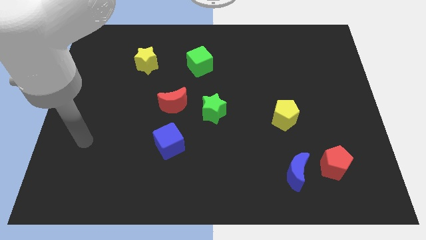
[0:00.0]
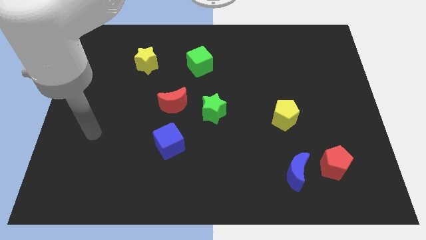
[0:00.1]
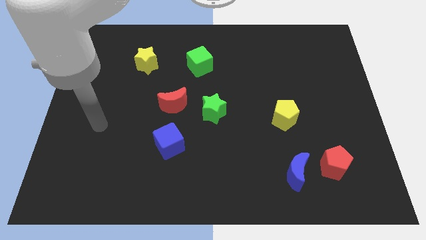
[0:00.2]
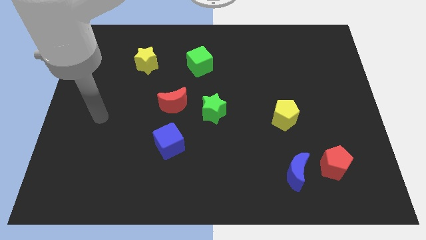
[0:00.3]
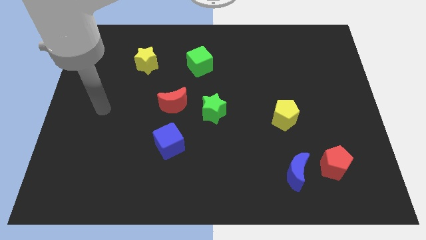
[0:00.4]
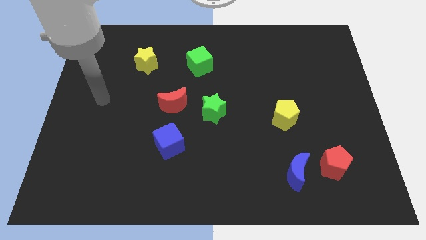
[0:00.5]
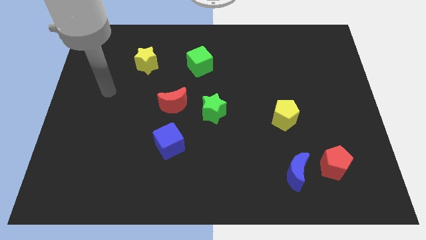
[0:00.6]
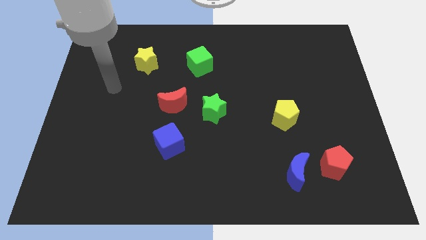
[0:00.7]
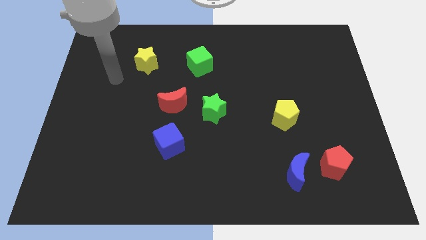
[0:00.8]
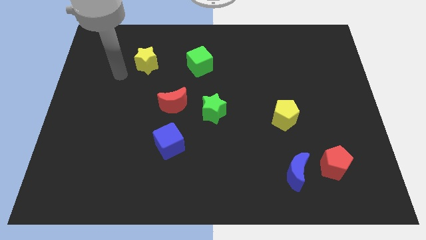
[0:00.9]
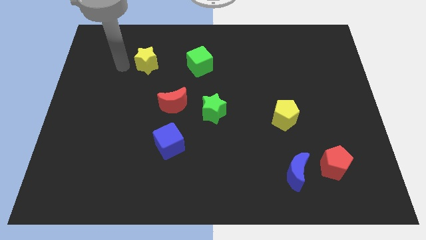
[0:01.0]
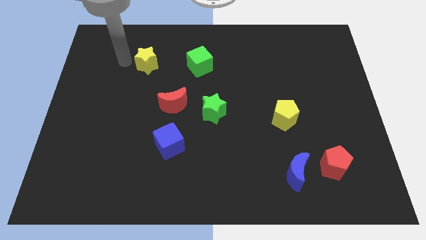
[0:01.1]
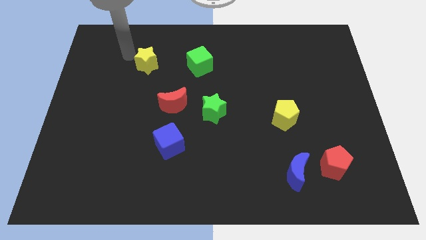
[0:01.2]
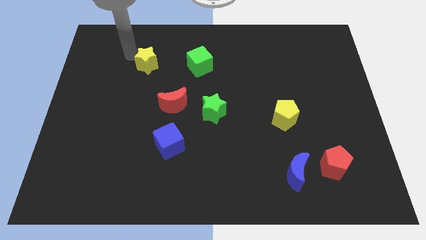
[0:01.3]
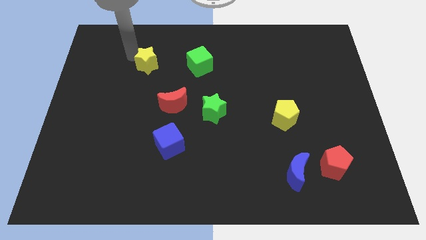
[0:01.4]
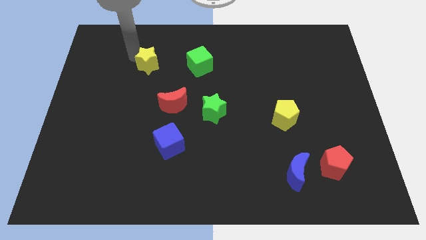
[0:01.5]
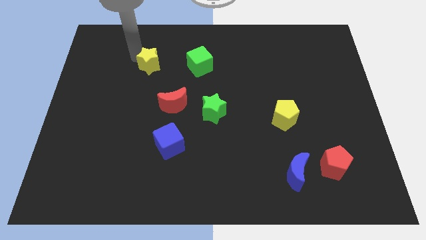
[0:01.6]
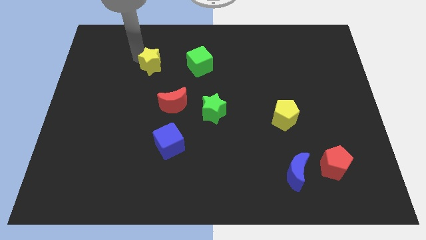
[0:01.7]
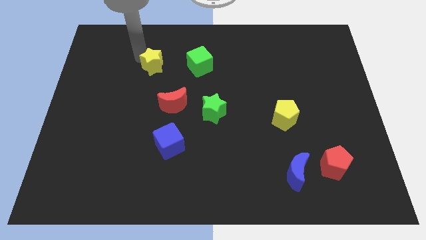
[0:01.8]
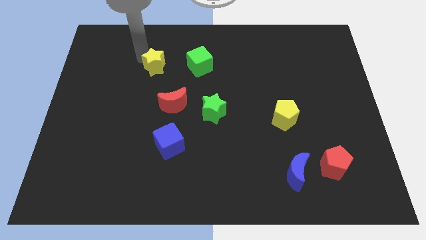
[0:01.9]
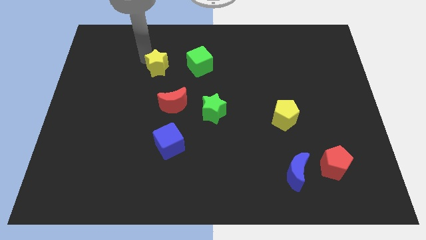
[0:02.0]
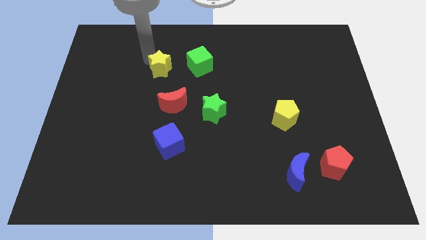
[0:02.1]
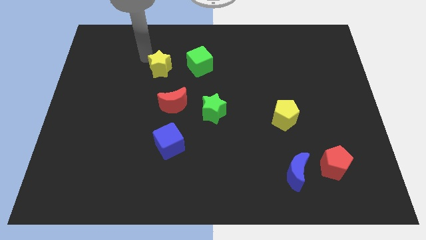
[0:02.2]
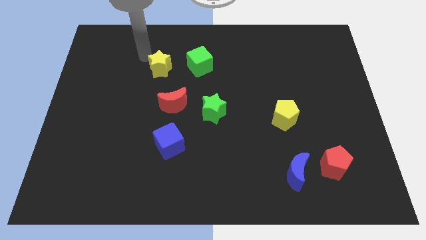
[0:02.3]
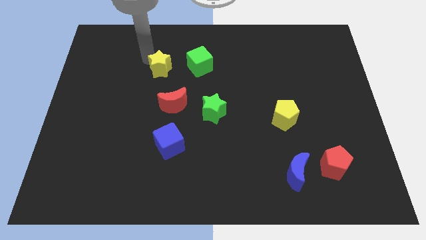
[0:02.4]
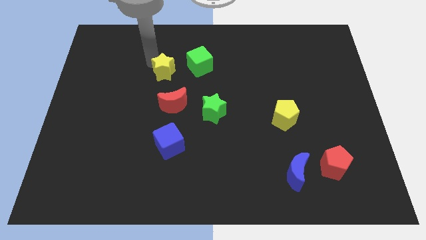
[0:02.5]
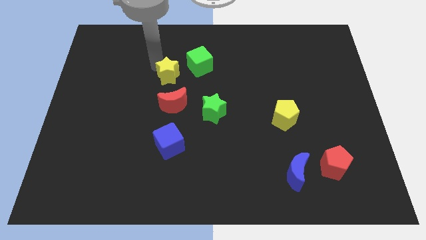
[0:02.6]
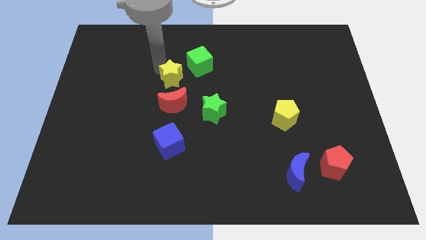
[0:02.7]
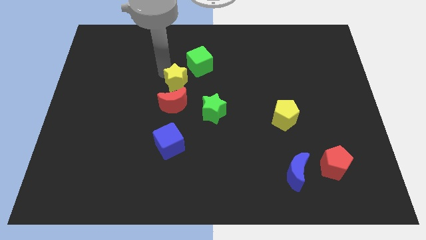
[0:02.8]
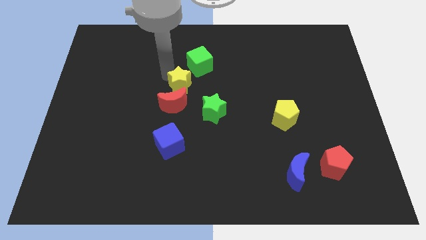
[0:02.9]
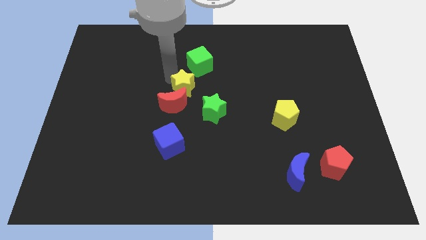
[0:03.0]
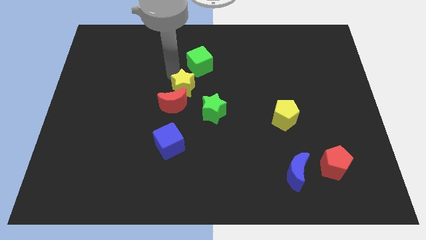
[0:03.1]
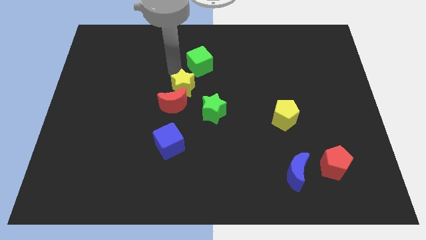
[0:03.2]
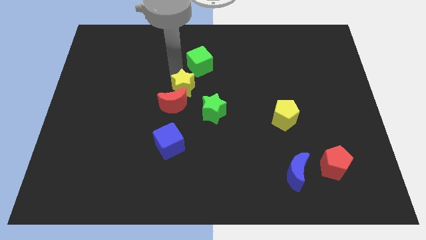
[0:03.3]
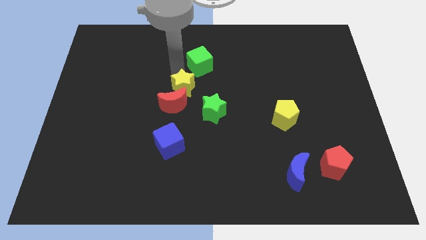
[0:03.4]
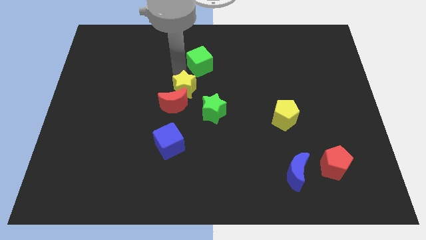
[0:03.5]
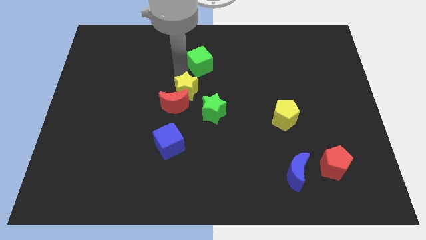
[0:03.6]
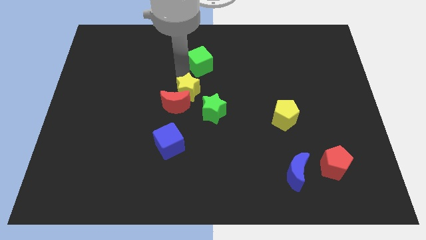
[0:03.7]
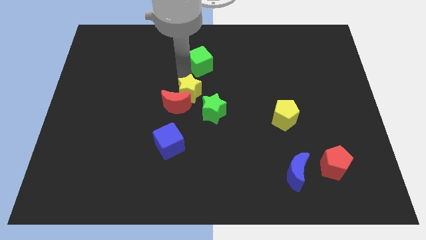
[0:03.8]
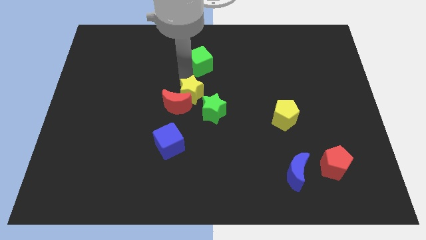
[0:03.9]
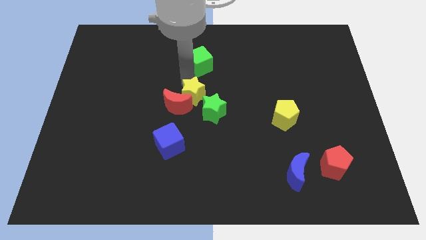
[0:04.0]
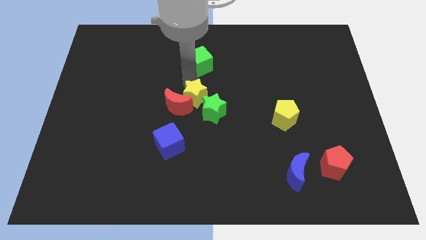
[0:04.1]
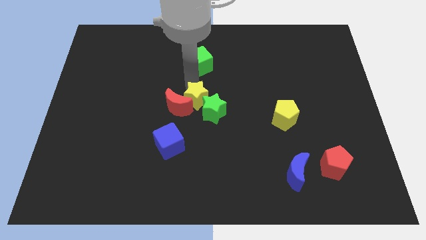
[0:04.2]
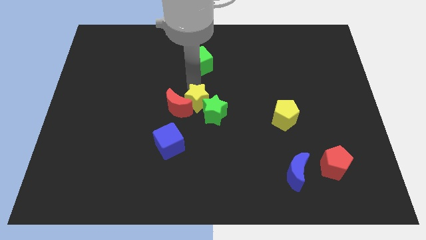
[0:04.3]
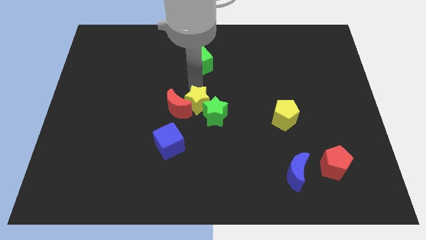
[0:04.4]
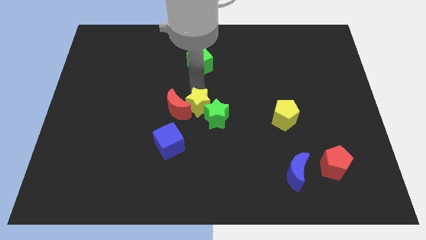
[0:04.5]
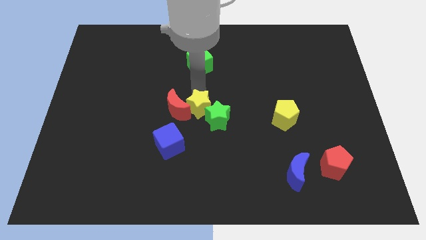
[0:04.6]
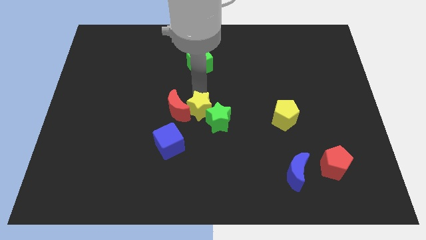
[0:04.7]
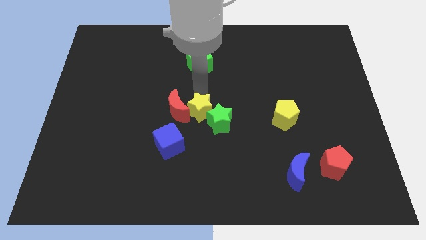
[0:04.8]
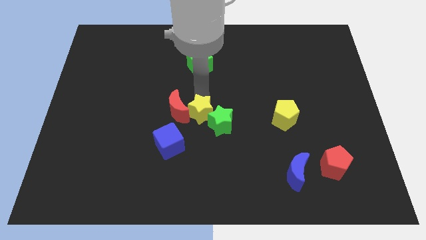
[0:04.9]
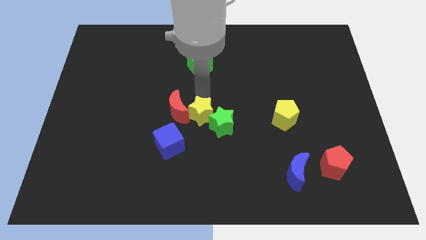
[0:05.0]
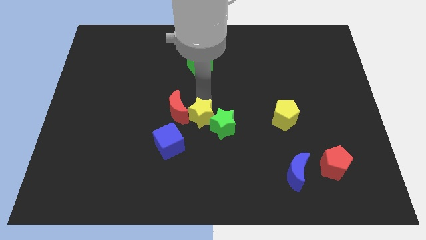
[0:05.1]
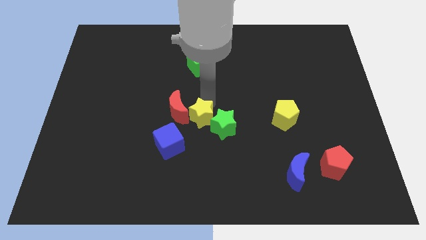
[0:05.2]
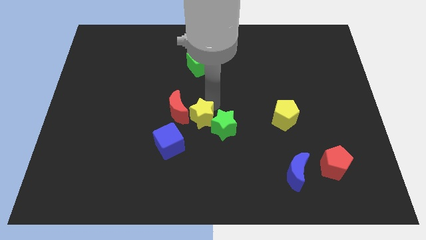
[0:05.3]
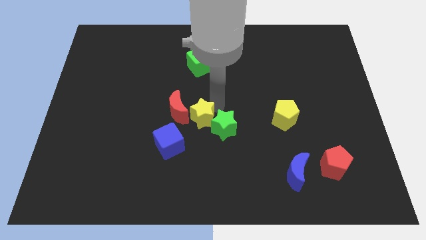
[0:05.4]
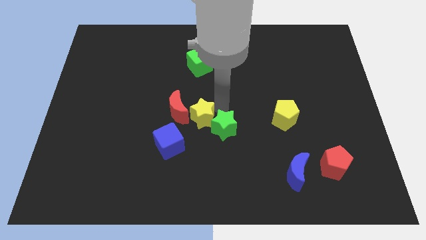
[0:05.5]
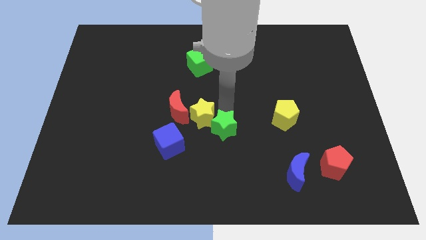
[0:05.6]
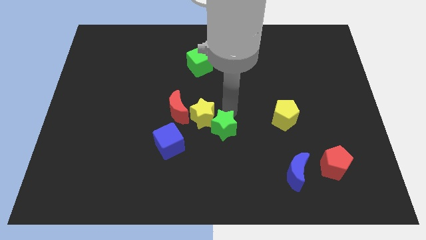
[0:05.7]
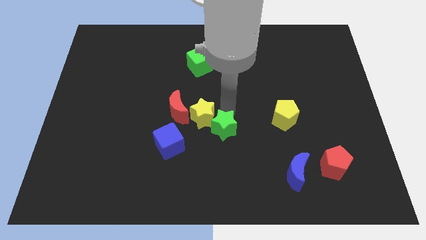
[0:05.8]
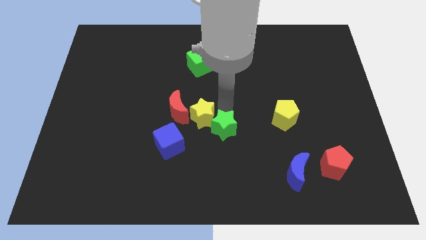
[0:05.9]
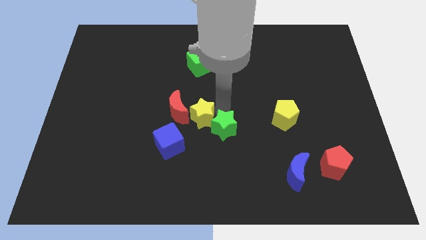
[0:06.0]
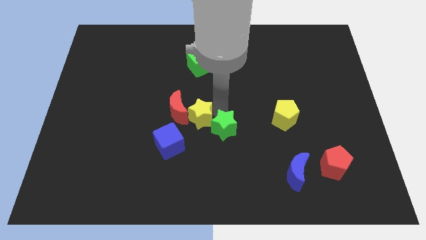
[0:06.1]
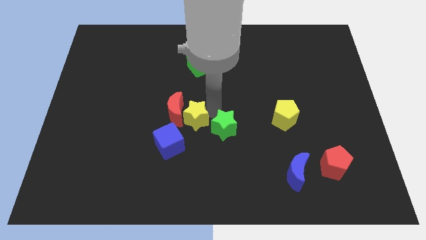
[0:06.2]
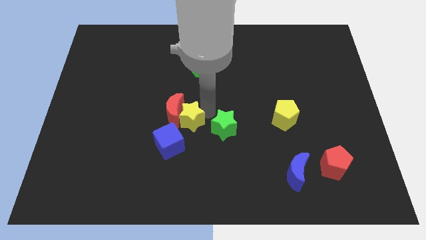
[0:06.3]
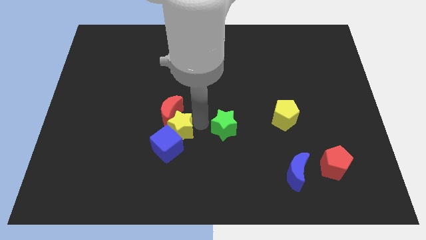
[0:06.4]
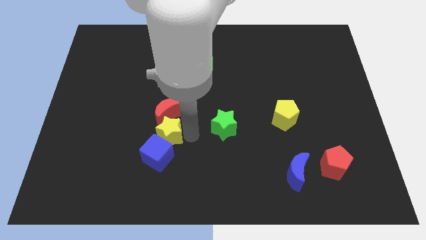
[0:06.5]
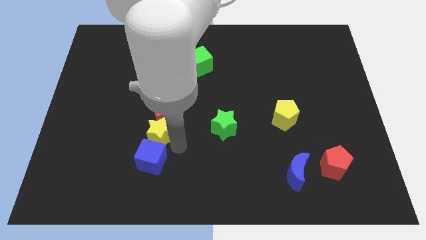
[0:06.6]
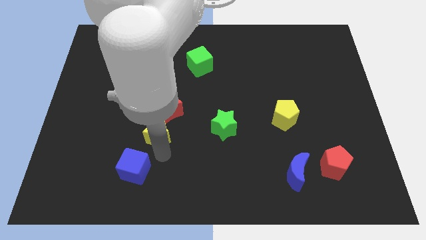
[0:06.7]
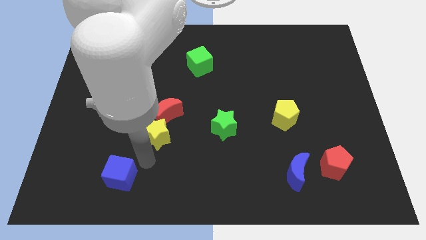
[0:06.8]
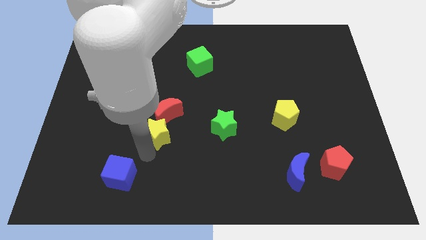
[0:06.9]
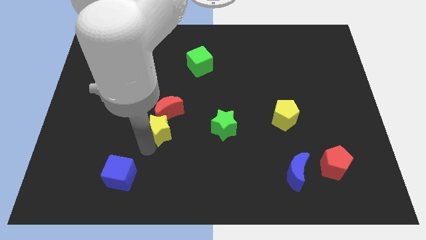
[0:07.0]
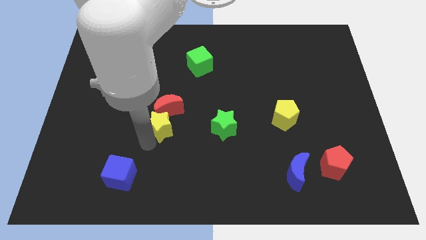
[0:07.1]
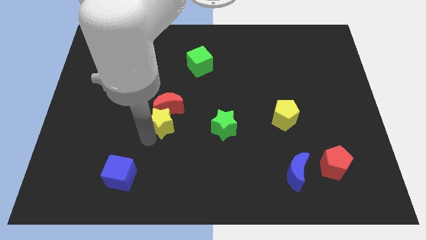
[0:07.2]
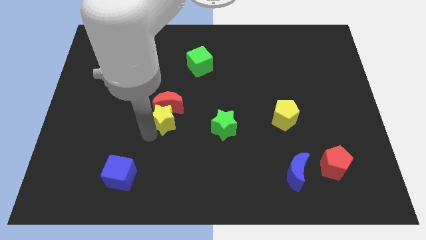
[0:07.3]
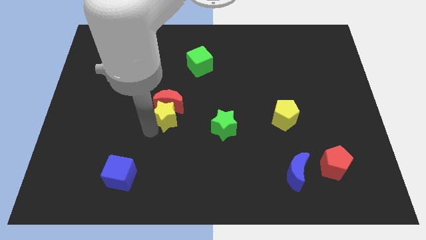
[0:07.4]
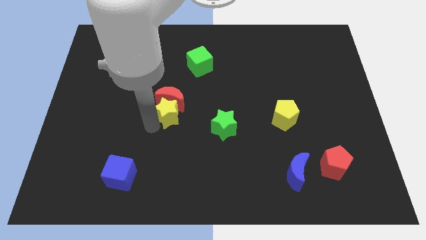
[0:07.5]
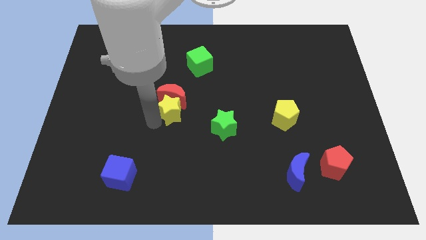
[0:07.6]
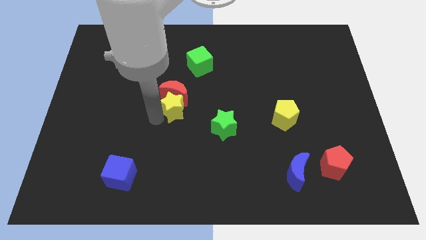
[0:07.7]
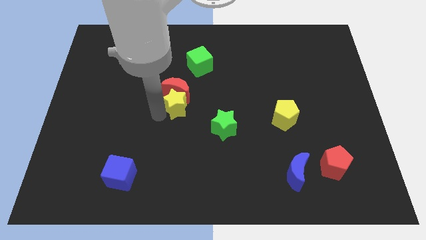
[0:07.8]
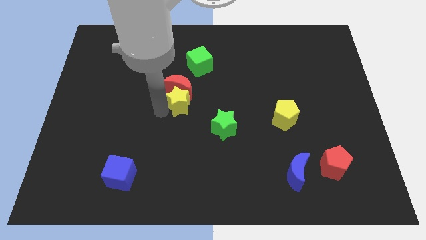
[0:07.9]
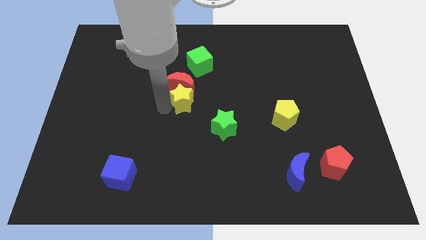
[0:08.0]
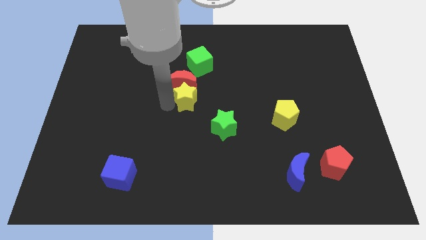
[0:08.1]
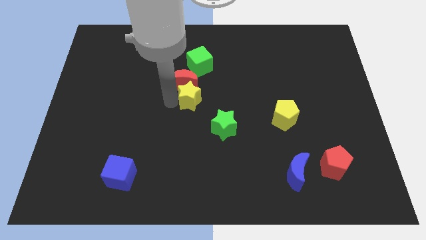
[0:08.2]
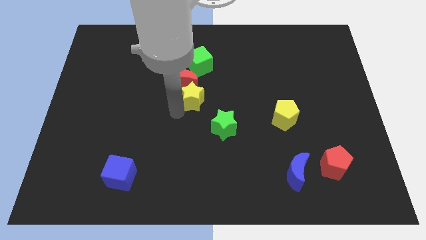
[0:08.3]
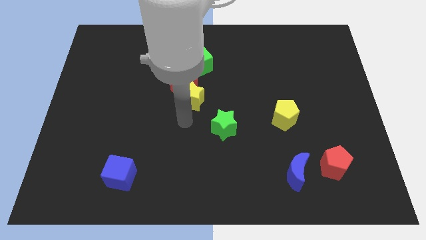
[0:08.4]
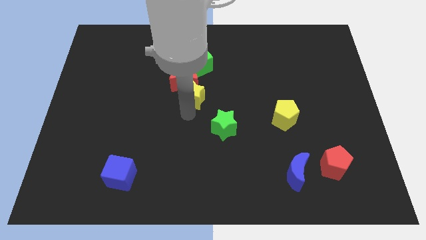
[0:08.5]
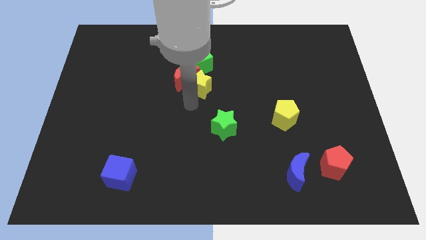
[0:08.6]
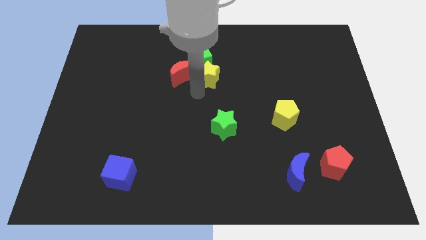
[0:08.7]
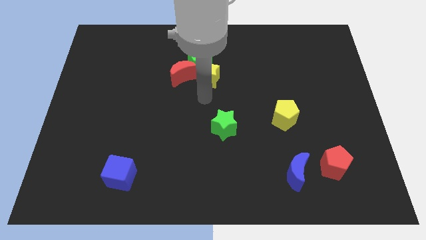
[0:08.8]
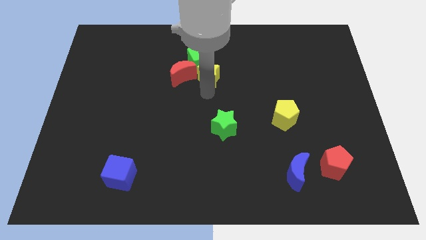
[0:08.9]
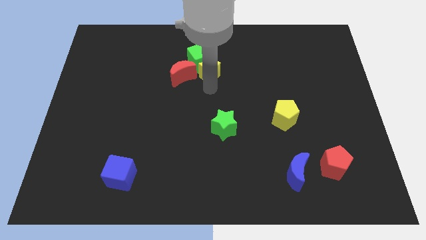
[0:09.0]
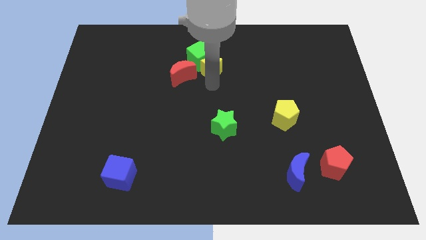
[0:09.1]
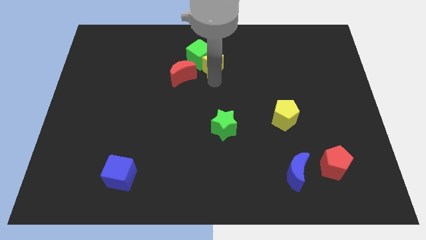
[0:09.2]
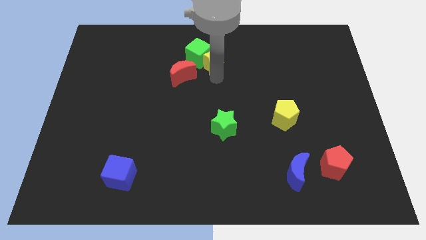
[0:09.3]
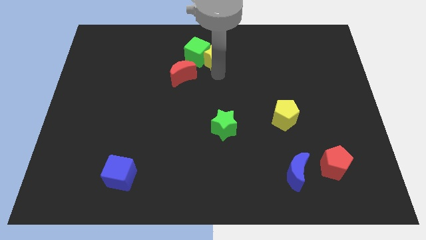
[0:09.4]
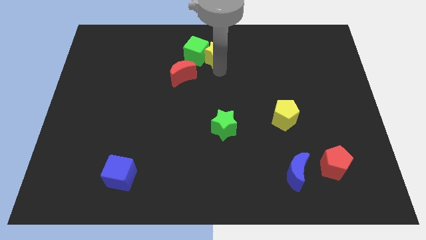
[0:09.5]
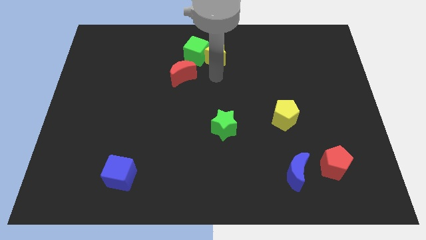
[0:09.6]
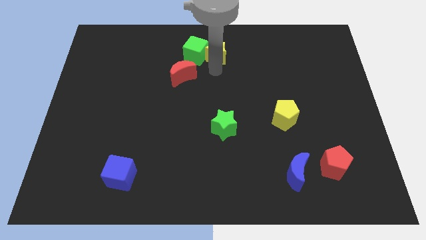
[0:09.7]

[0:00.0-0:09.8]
slide the yellow star to the top
